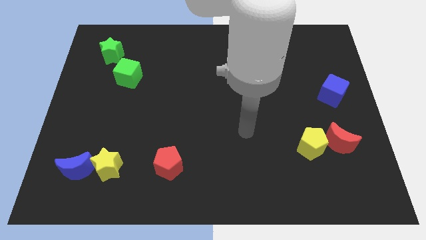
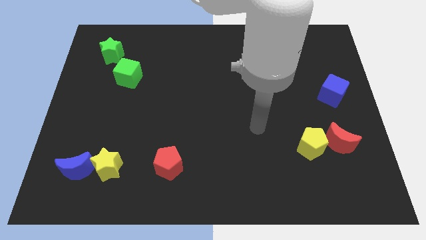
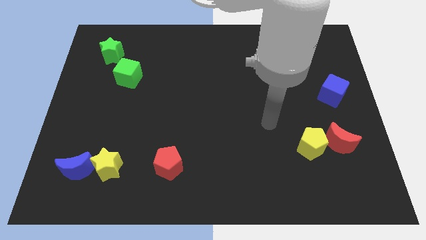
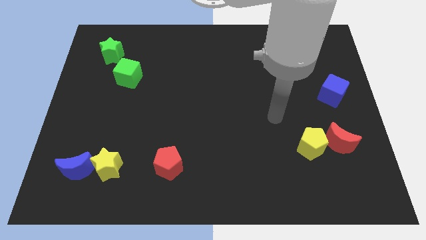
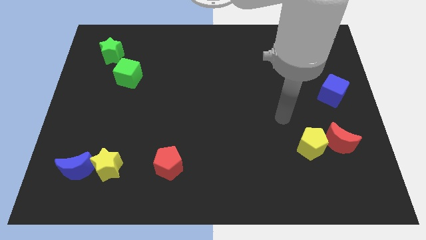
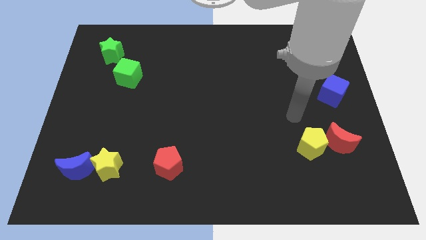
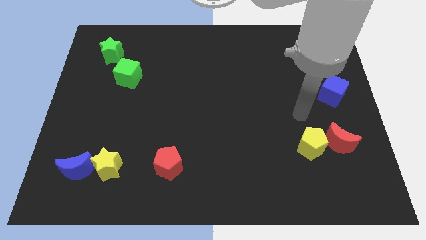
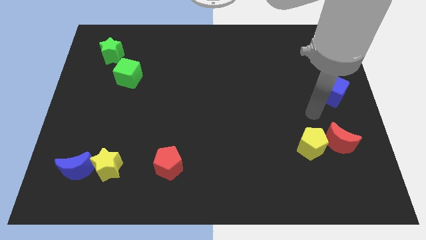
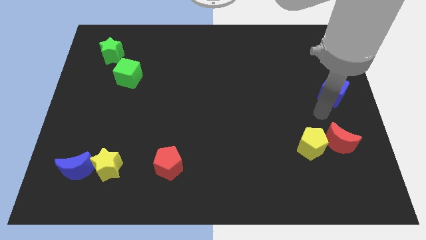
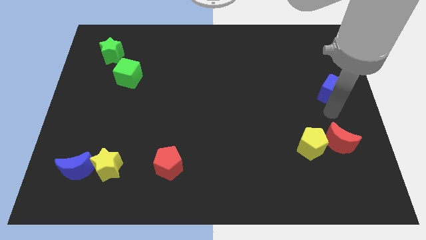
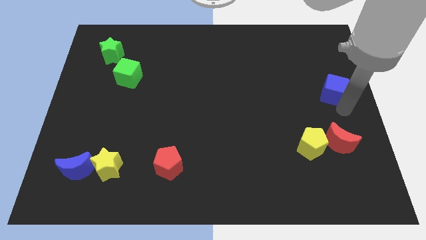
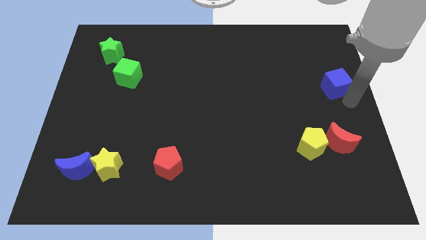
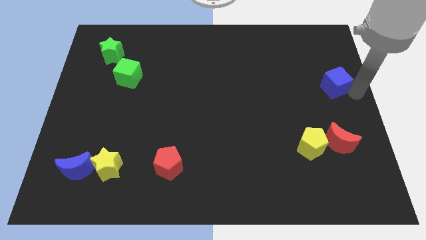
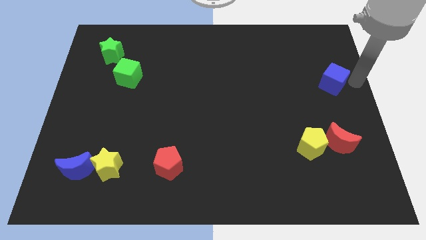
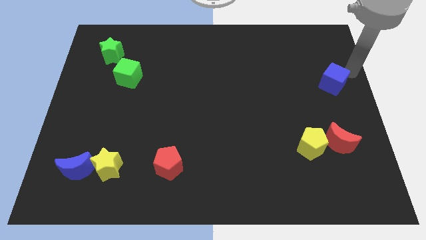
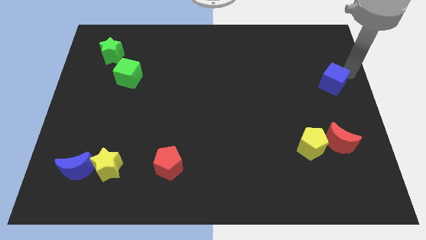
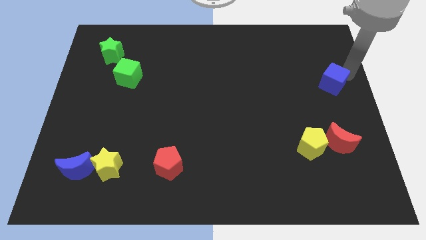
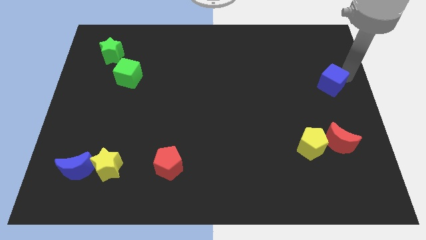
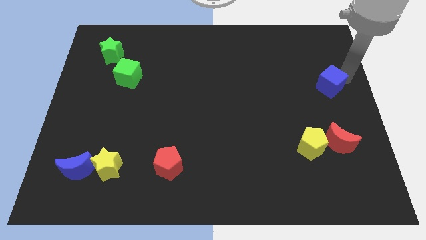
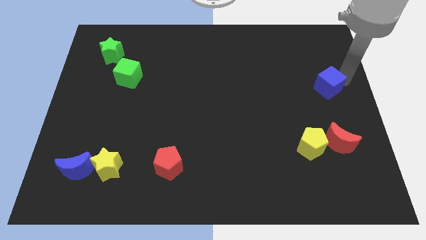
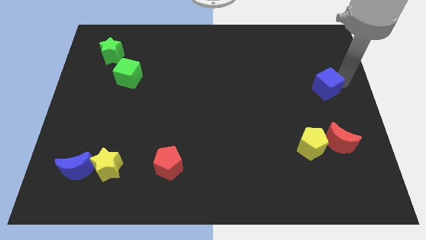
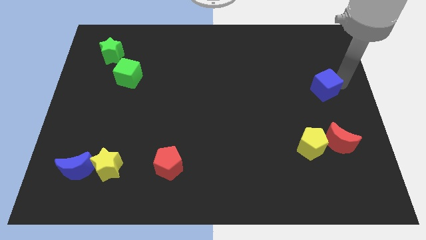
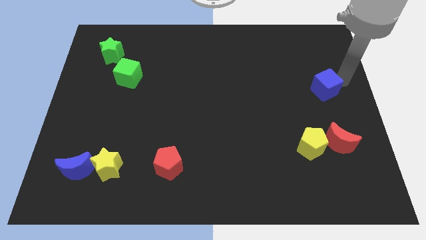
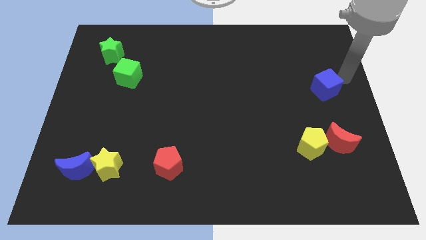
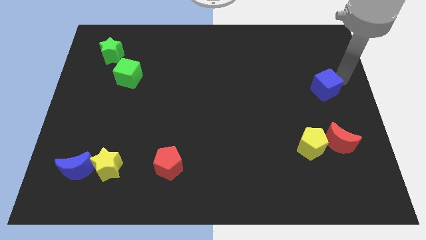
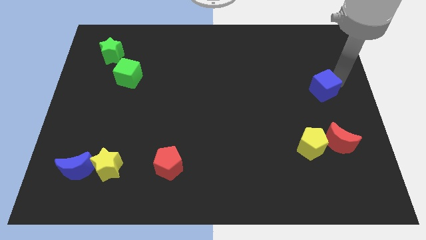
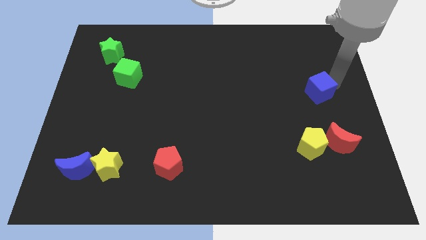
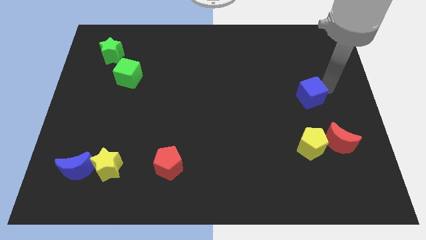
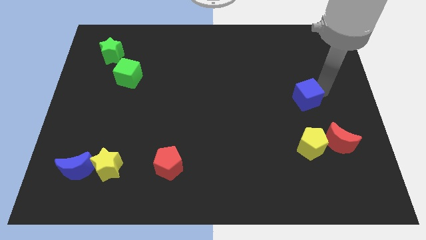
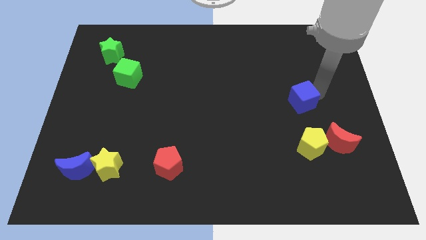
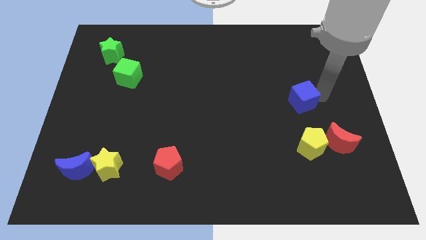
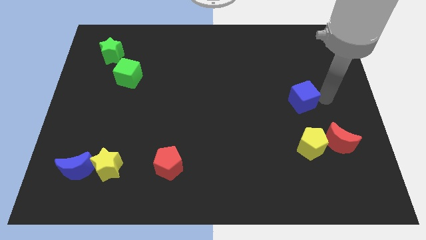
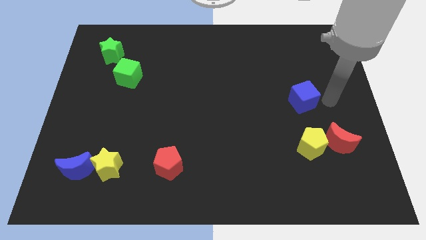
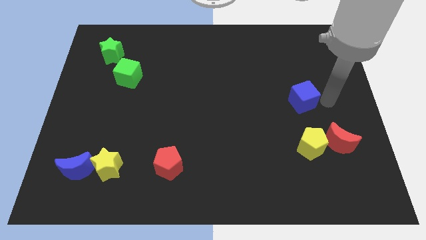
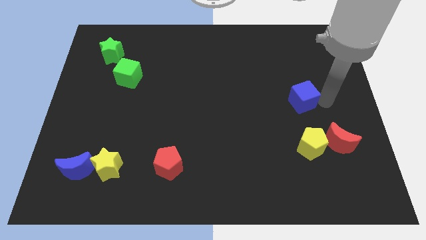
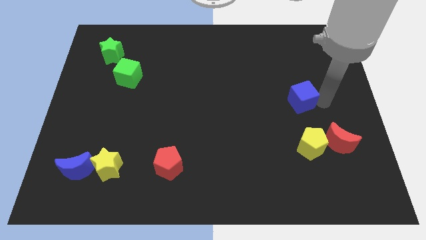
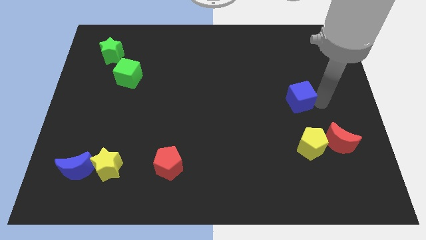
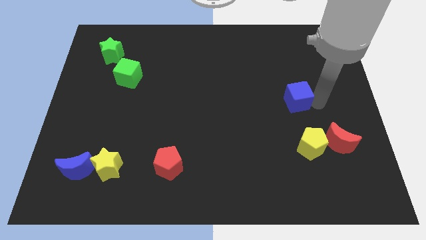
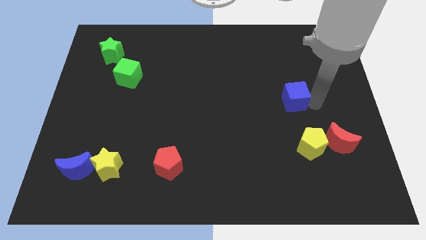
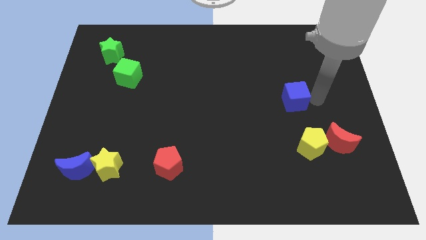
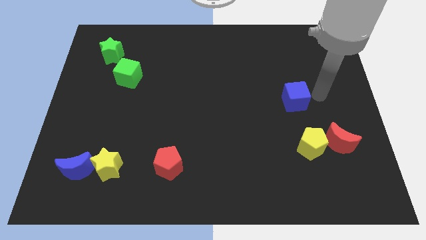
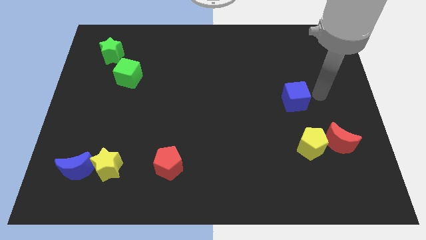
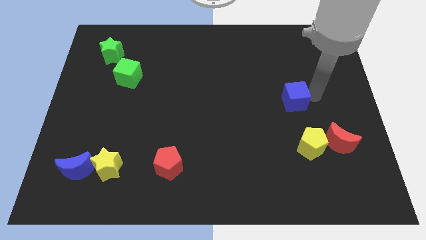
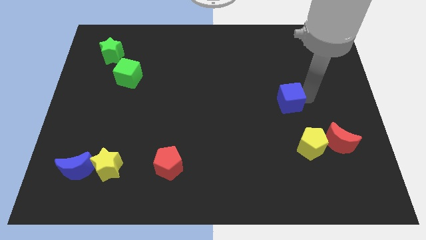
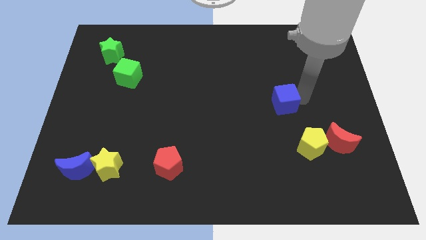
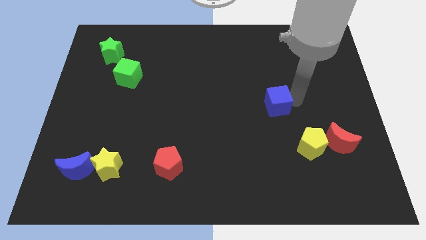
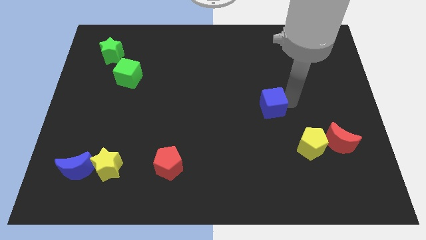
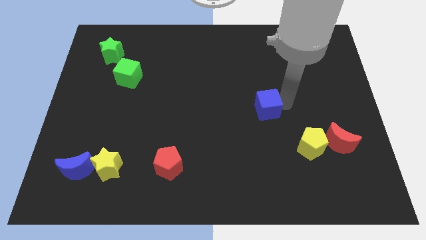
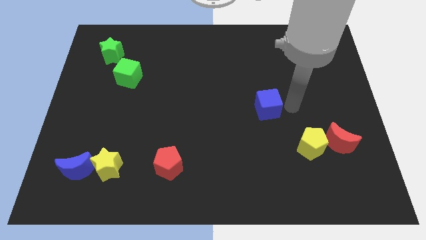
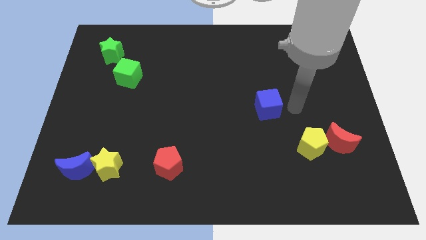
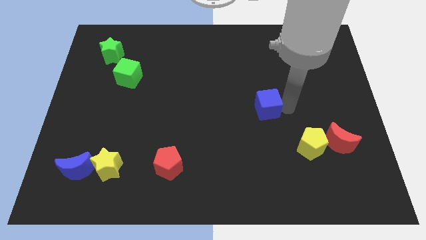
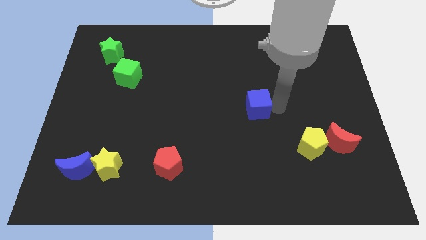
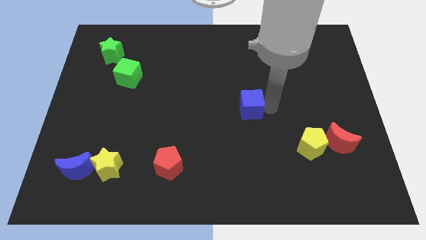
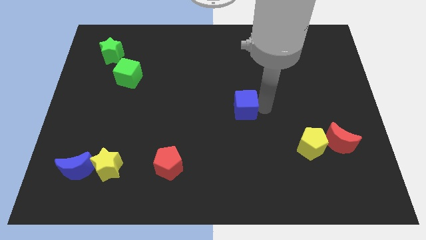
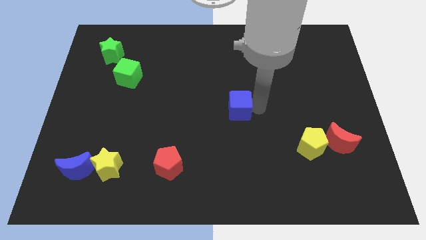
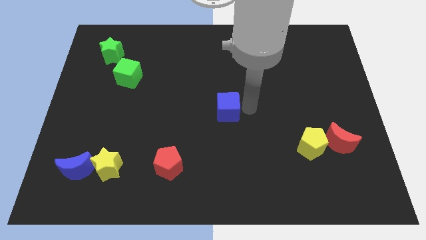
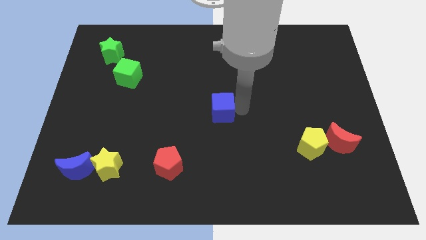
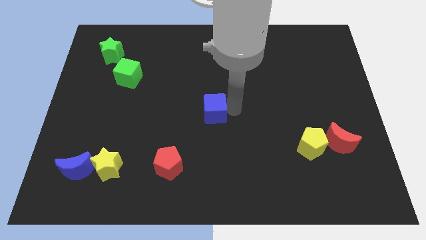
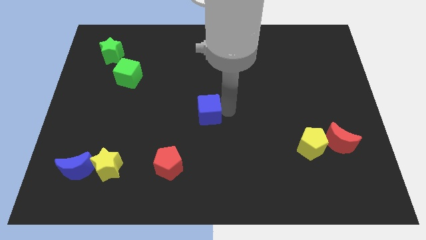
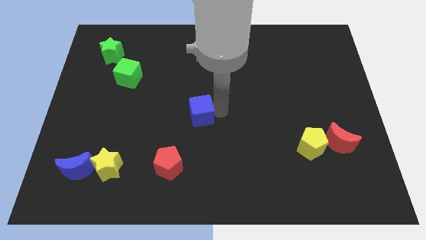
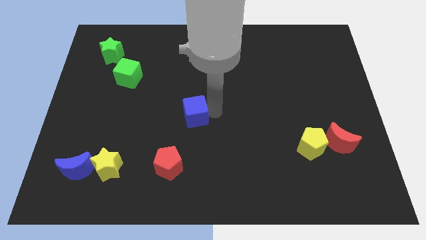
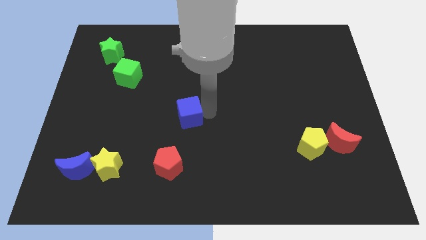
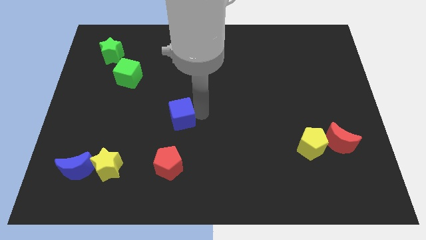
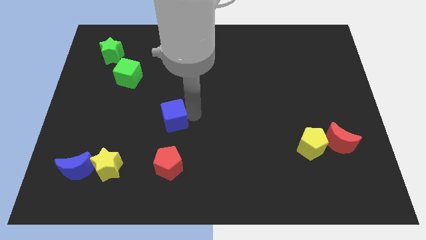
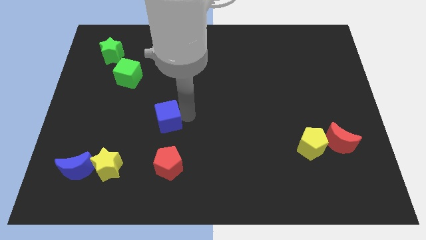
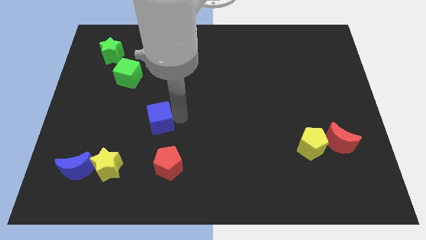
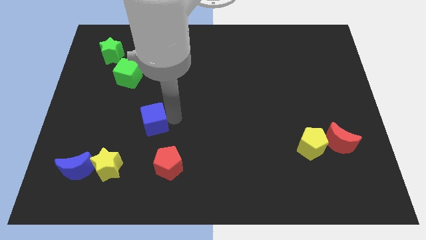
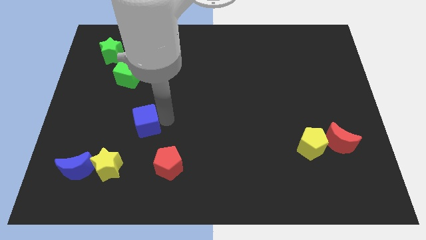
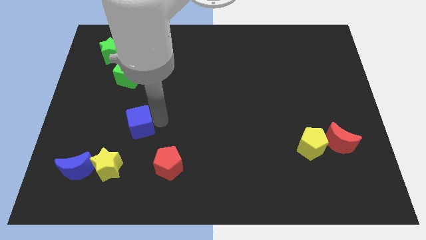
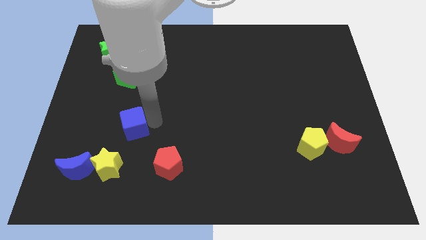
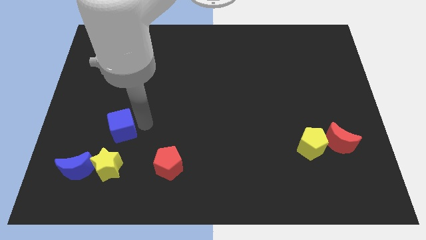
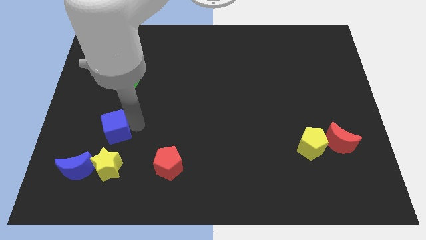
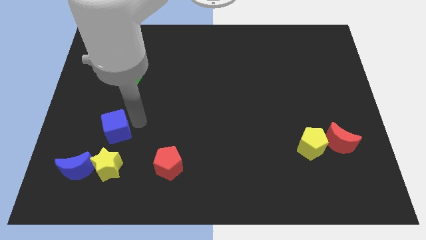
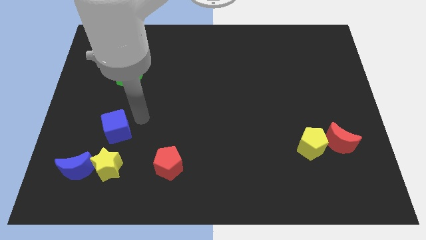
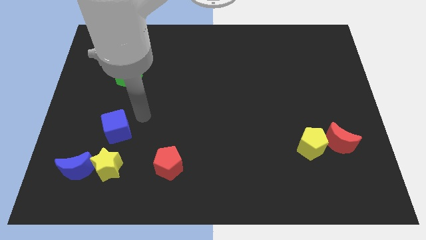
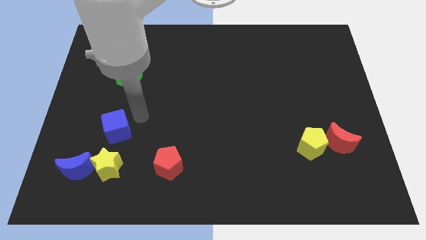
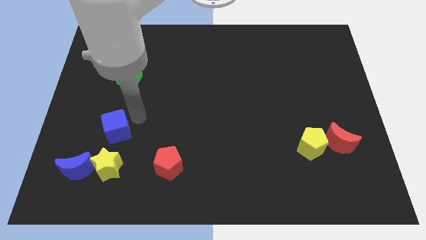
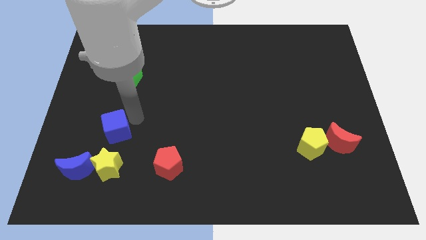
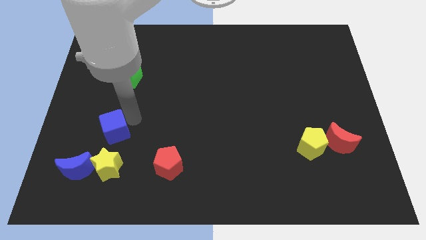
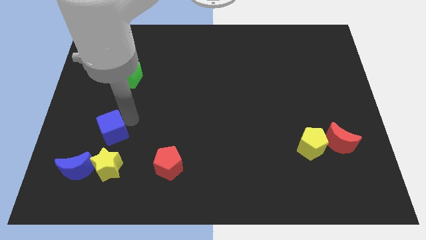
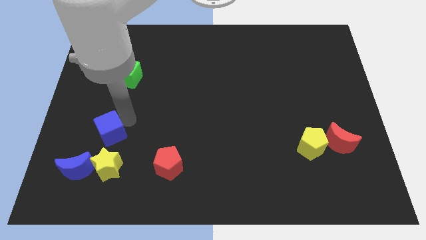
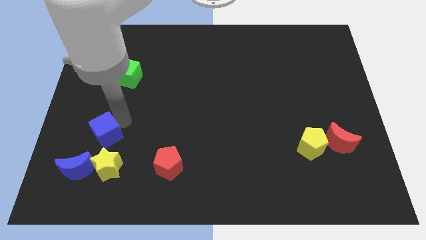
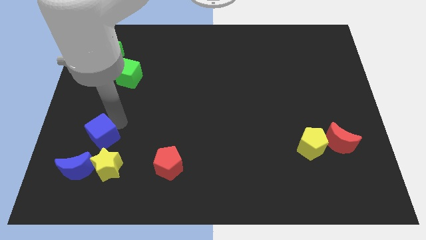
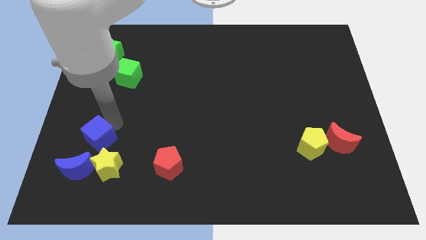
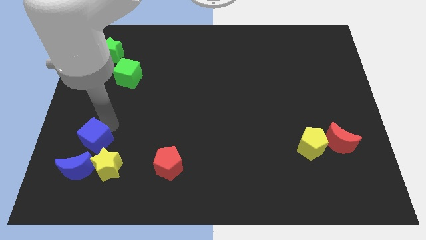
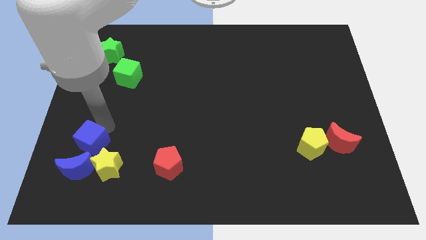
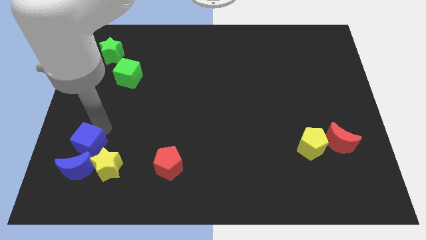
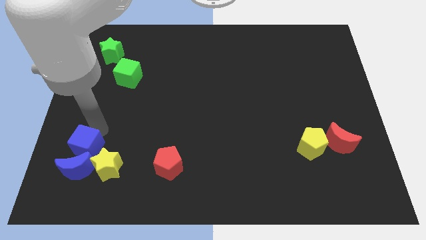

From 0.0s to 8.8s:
put the blue cube close to the blue moon
